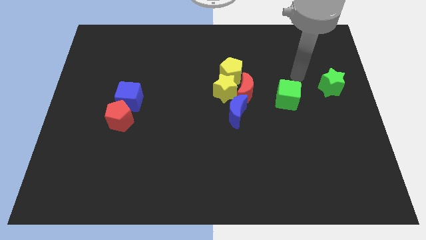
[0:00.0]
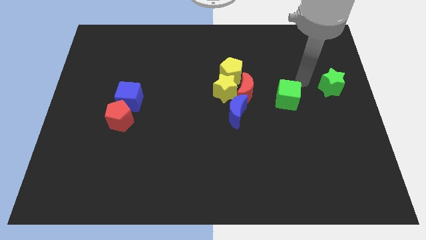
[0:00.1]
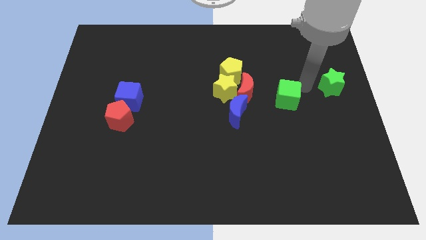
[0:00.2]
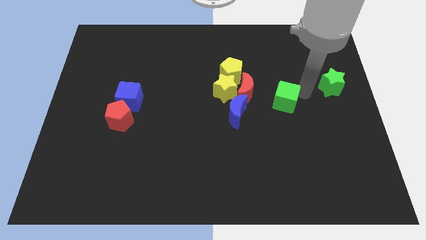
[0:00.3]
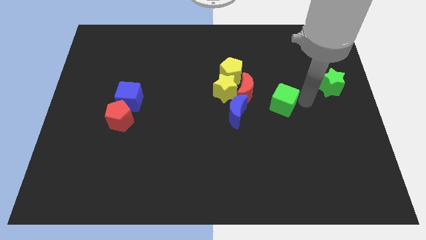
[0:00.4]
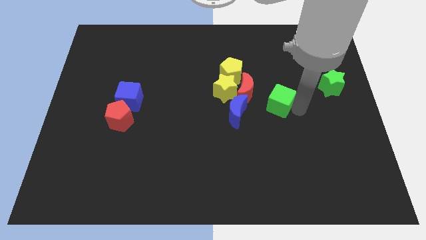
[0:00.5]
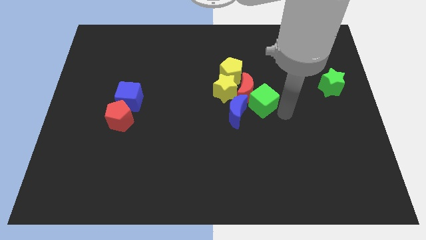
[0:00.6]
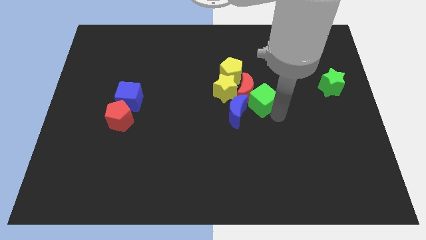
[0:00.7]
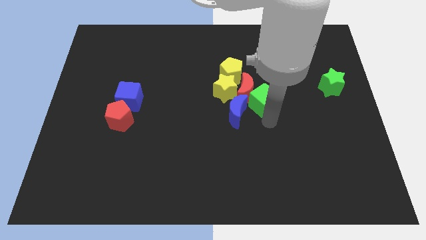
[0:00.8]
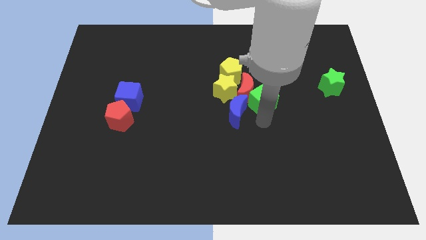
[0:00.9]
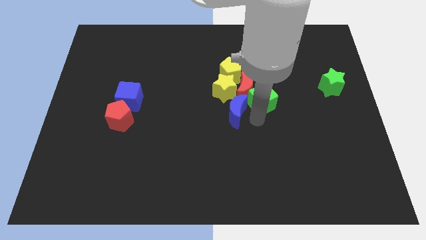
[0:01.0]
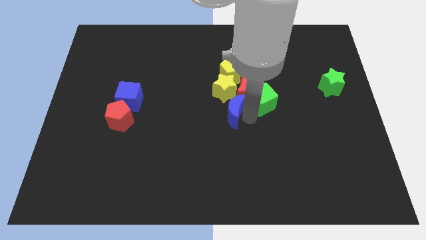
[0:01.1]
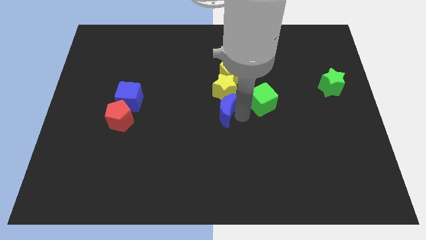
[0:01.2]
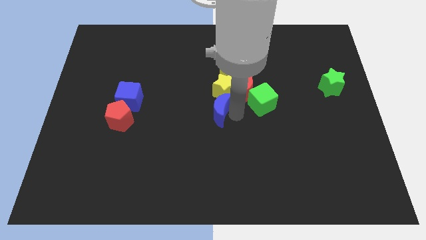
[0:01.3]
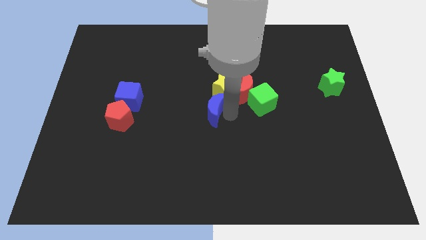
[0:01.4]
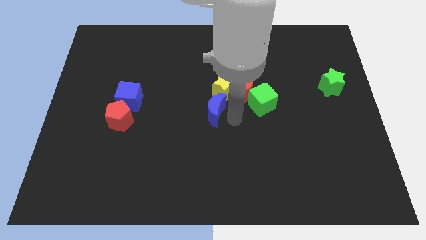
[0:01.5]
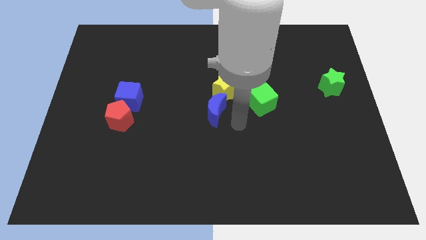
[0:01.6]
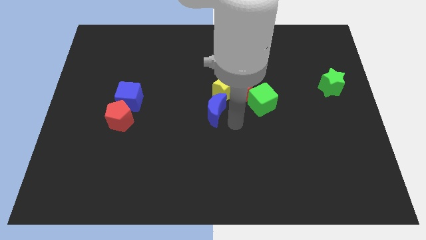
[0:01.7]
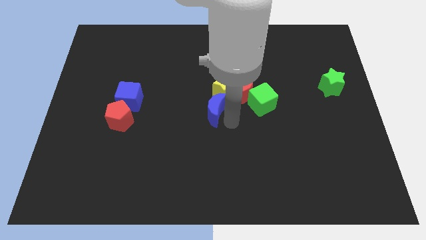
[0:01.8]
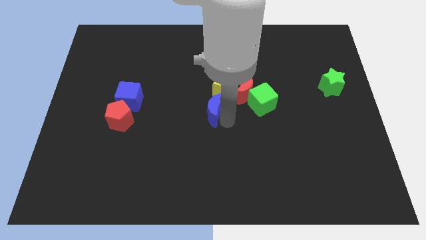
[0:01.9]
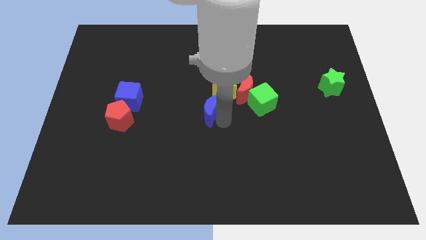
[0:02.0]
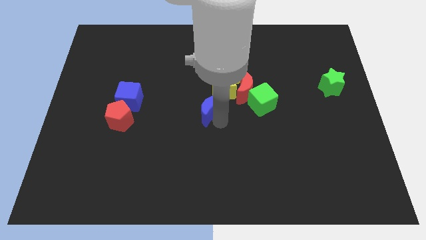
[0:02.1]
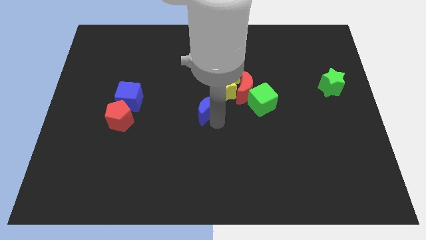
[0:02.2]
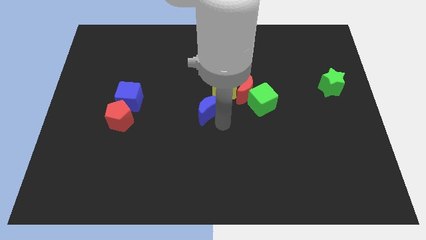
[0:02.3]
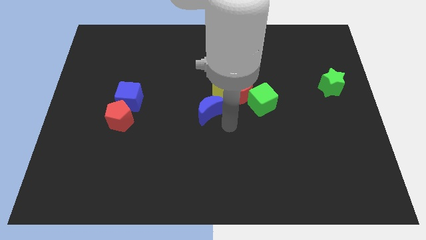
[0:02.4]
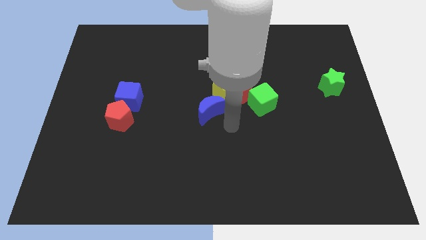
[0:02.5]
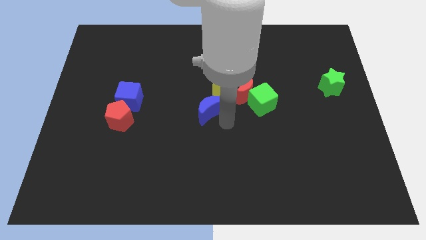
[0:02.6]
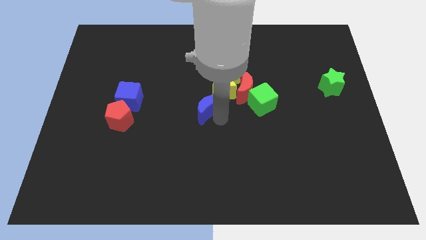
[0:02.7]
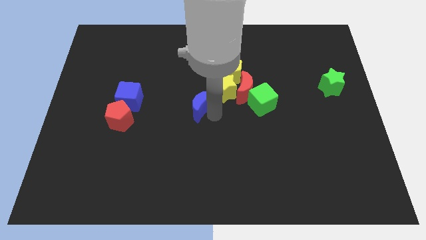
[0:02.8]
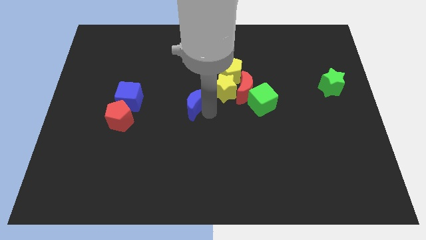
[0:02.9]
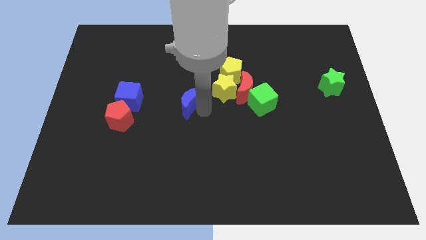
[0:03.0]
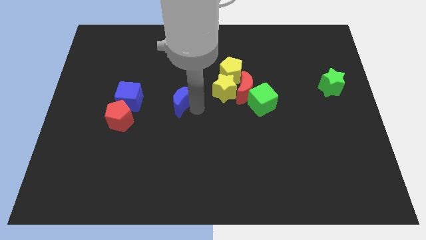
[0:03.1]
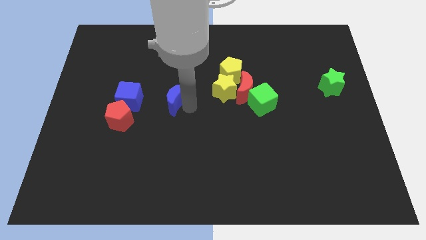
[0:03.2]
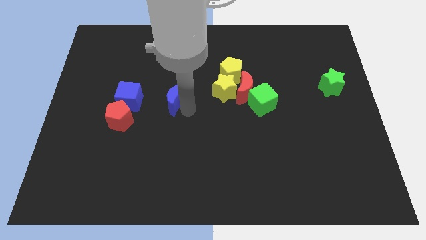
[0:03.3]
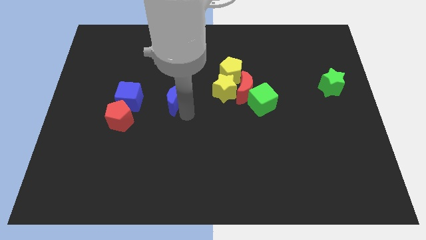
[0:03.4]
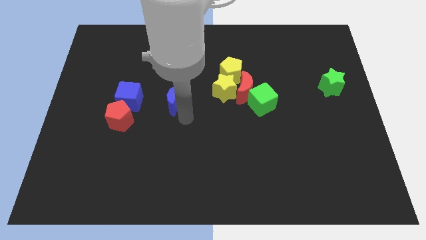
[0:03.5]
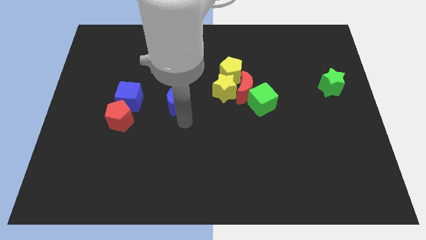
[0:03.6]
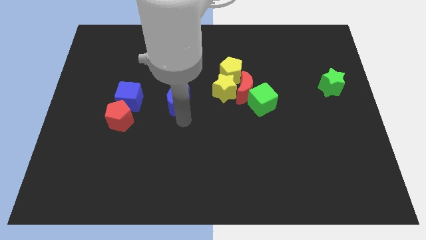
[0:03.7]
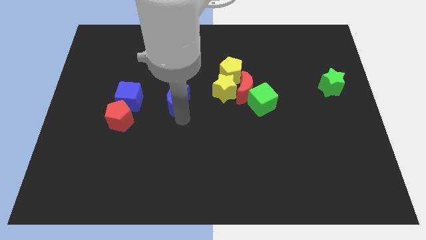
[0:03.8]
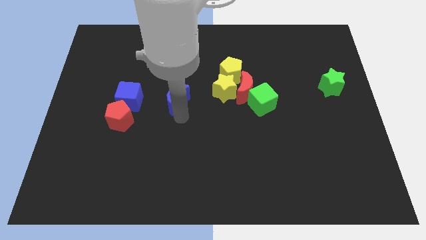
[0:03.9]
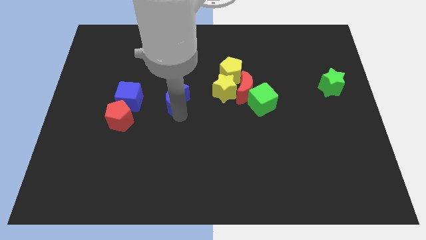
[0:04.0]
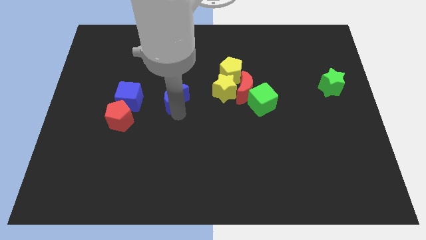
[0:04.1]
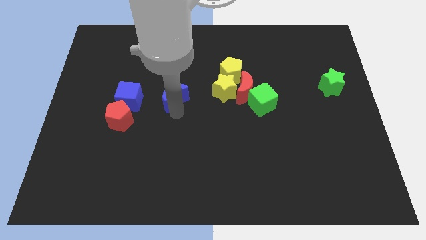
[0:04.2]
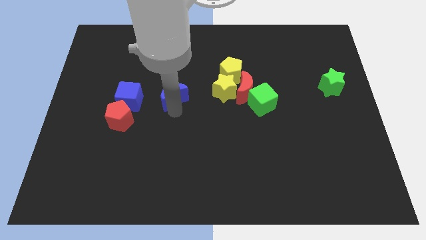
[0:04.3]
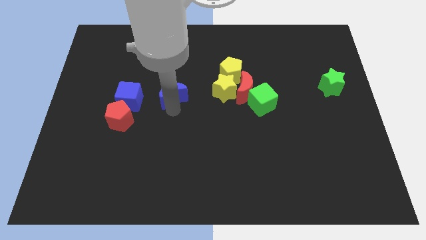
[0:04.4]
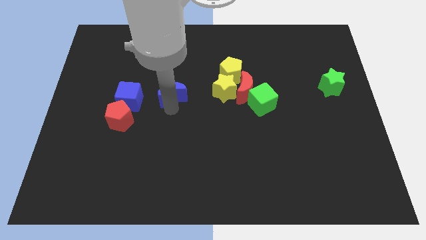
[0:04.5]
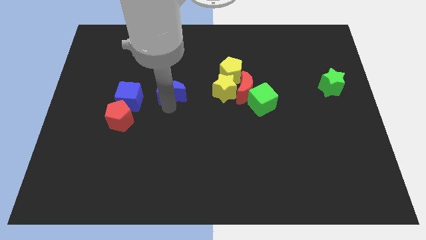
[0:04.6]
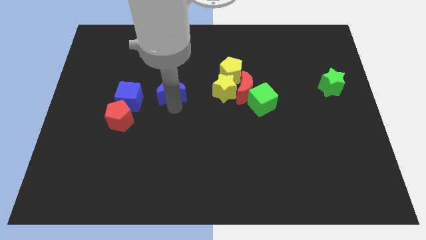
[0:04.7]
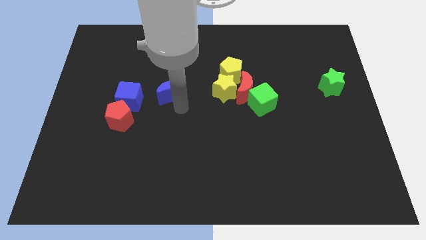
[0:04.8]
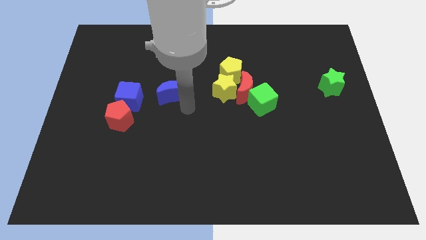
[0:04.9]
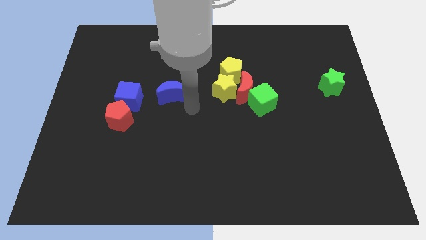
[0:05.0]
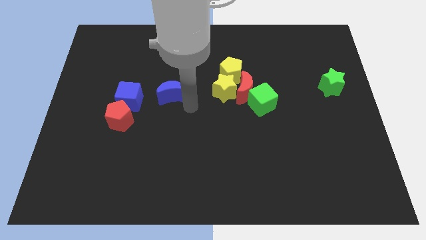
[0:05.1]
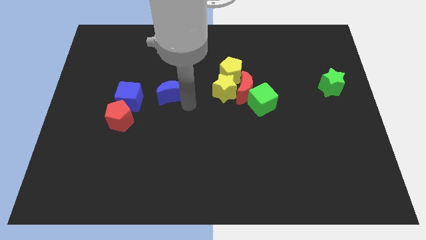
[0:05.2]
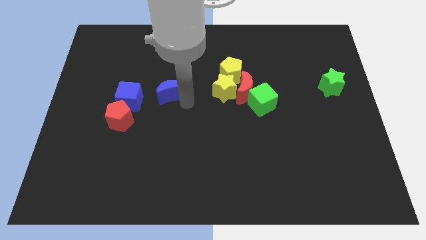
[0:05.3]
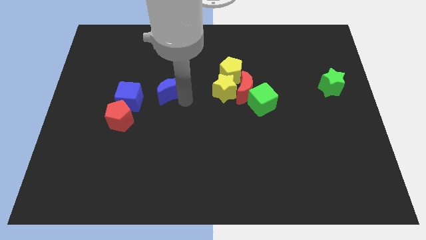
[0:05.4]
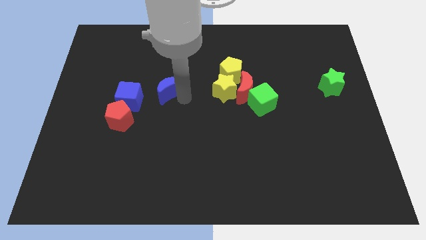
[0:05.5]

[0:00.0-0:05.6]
push the blue moon to the top right of the blue cube
